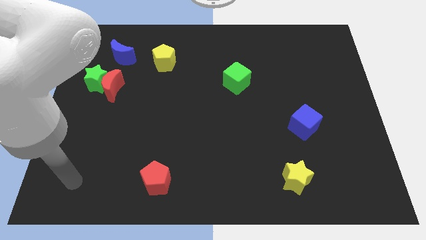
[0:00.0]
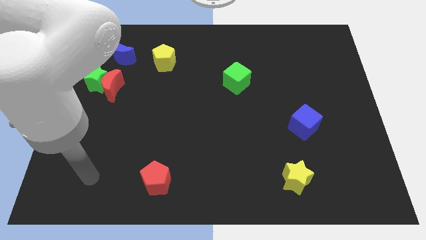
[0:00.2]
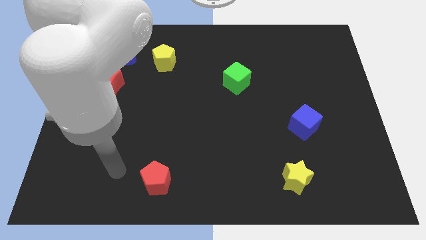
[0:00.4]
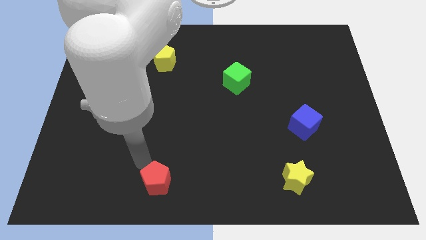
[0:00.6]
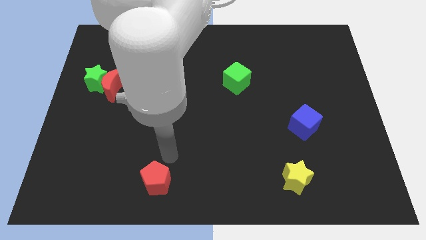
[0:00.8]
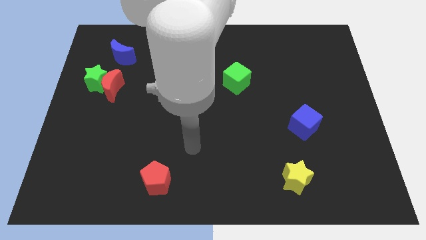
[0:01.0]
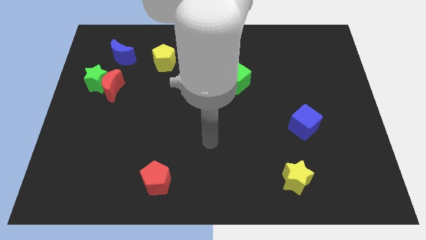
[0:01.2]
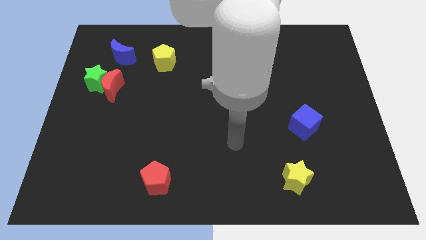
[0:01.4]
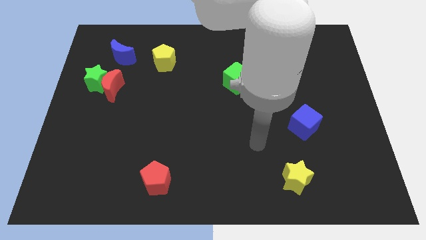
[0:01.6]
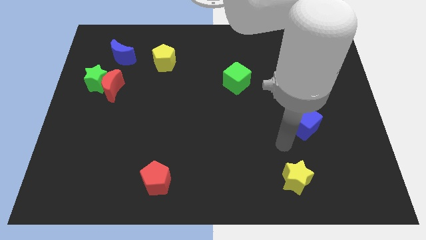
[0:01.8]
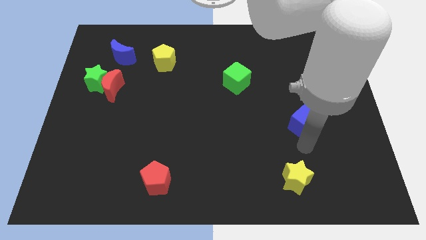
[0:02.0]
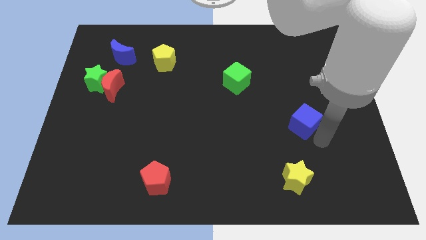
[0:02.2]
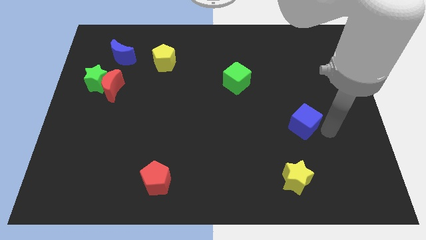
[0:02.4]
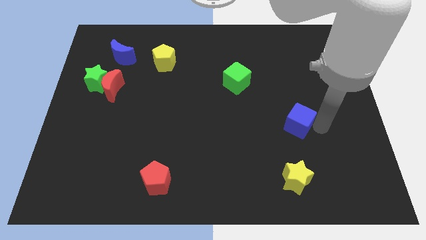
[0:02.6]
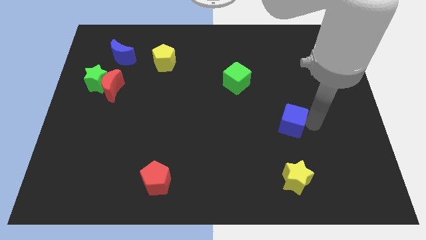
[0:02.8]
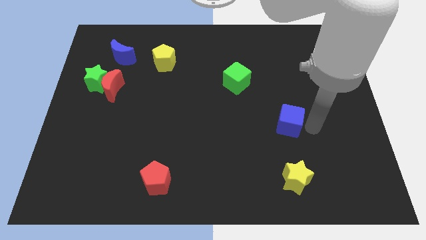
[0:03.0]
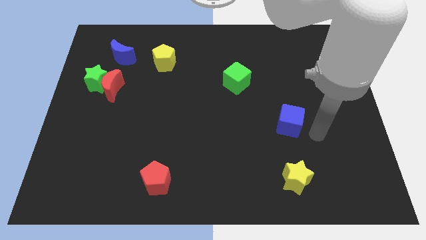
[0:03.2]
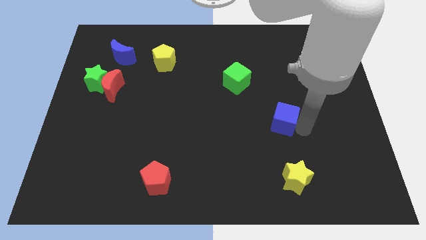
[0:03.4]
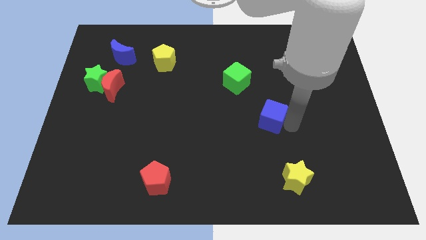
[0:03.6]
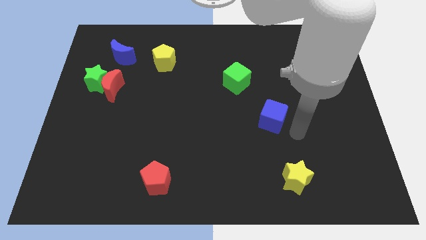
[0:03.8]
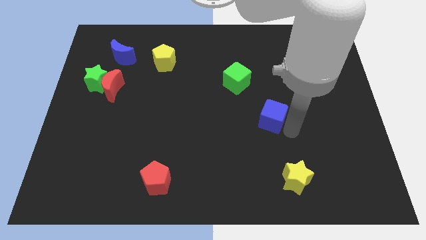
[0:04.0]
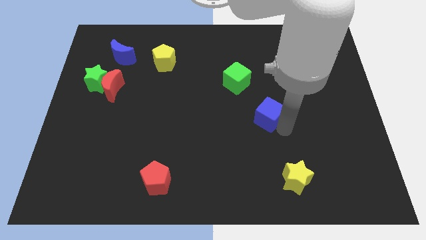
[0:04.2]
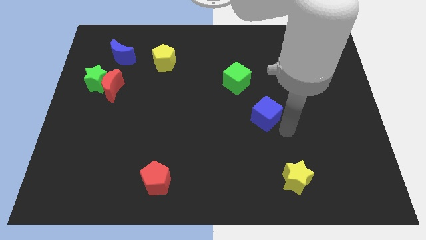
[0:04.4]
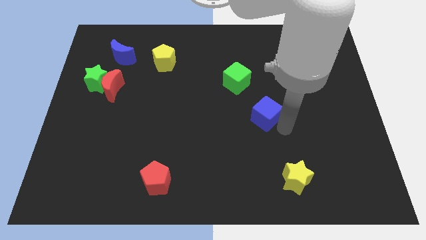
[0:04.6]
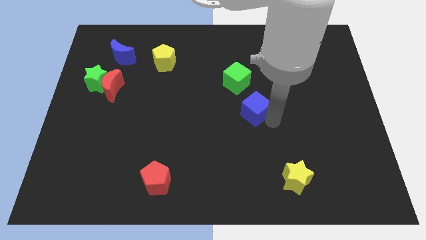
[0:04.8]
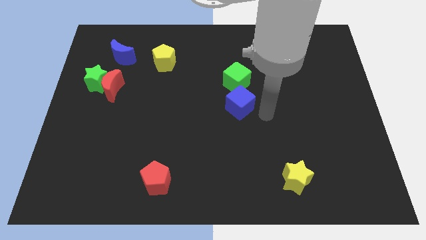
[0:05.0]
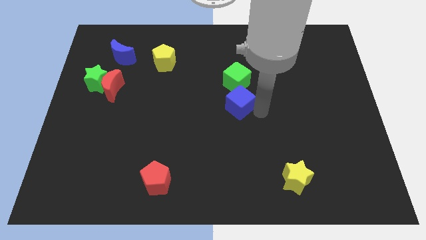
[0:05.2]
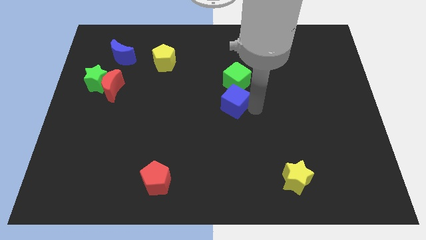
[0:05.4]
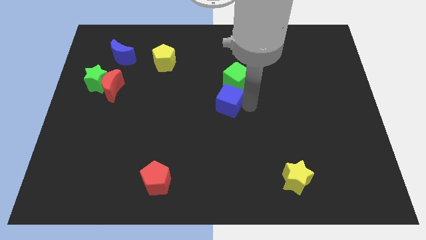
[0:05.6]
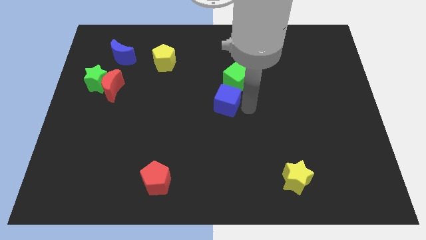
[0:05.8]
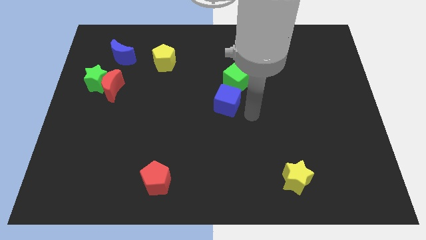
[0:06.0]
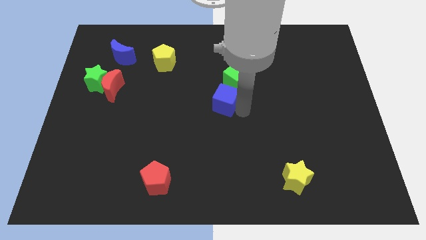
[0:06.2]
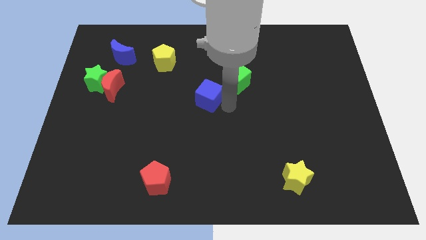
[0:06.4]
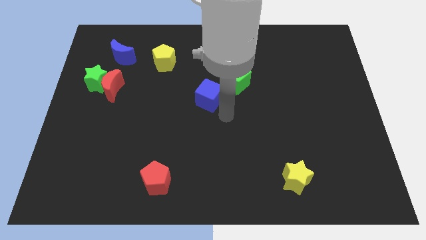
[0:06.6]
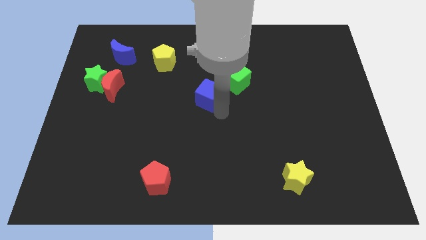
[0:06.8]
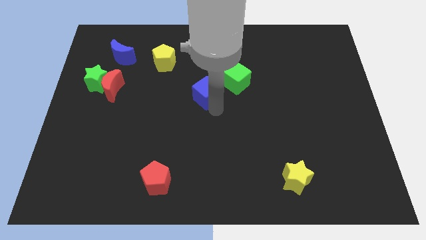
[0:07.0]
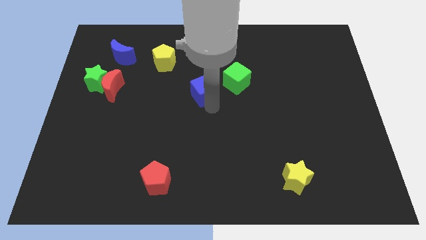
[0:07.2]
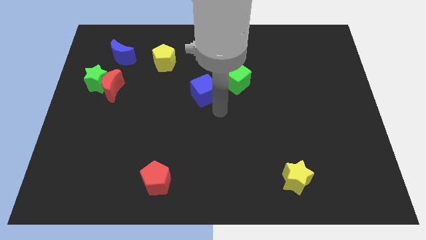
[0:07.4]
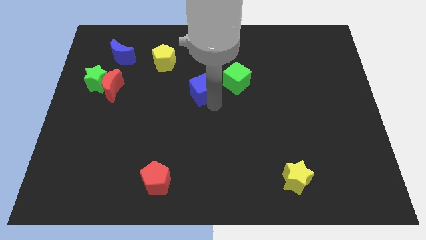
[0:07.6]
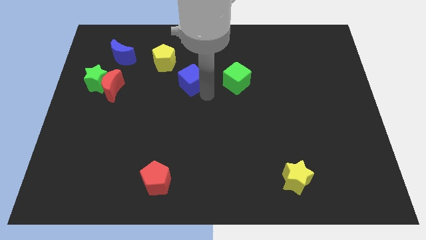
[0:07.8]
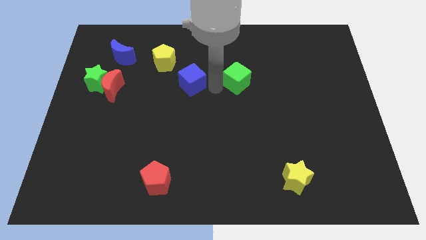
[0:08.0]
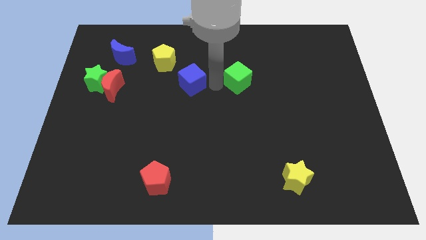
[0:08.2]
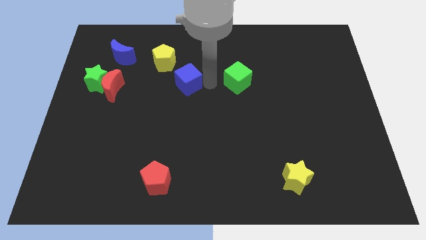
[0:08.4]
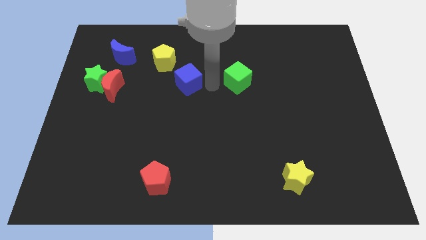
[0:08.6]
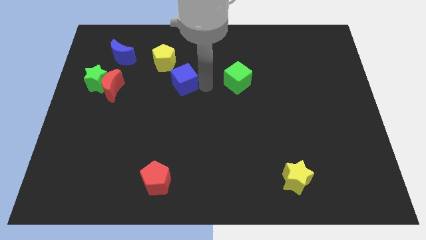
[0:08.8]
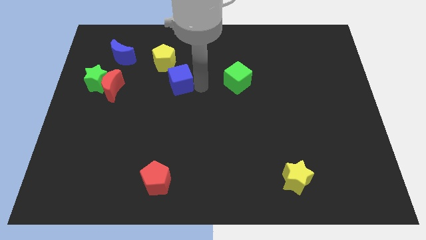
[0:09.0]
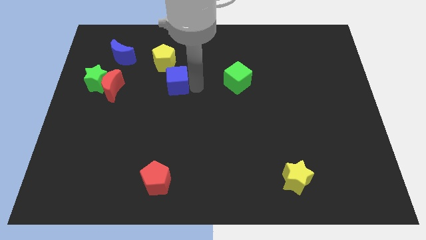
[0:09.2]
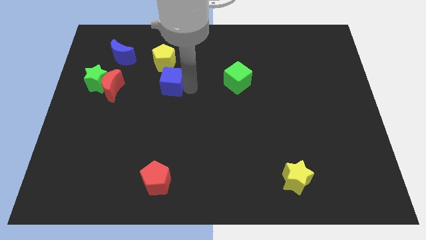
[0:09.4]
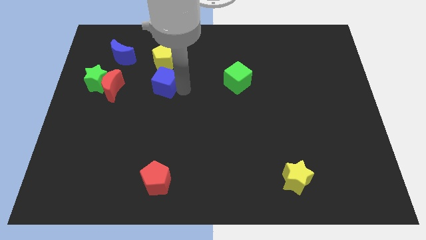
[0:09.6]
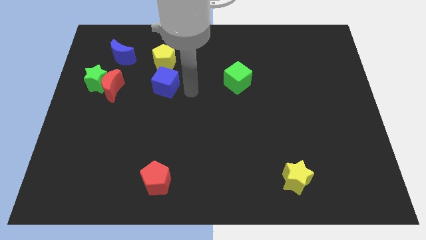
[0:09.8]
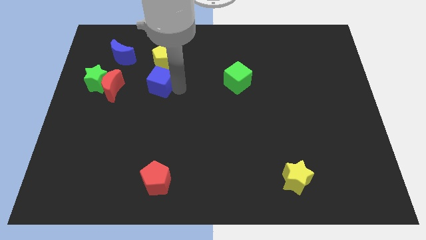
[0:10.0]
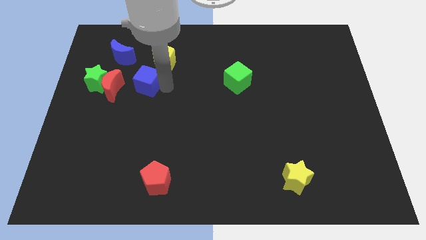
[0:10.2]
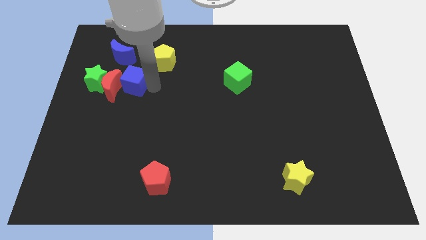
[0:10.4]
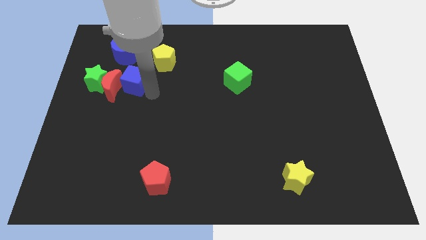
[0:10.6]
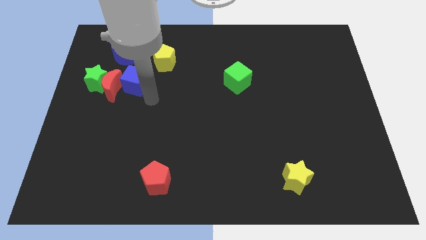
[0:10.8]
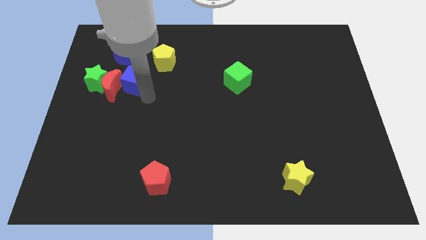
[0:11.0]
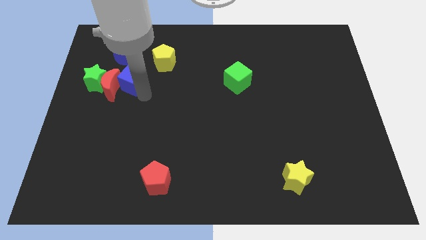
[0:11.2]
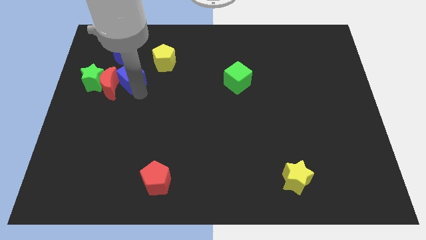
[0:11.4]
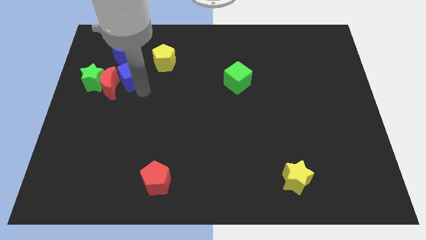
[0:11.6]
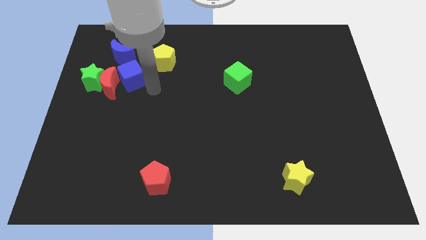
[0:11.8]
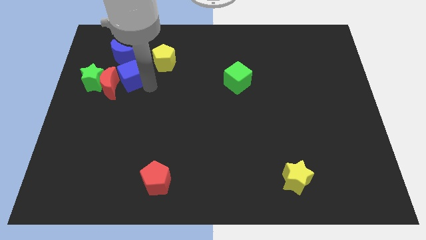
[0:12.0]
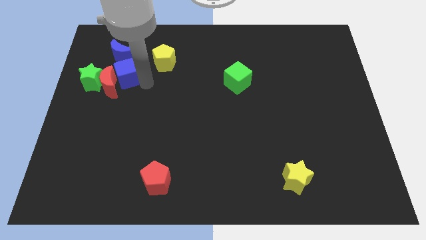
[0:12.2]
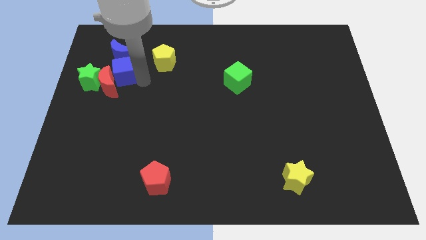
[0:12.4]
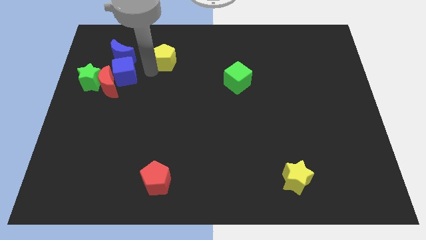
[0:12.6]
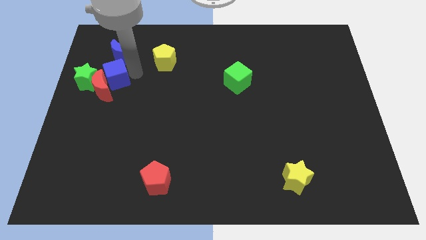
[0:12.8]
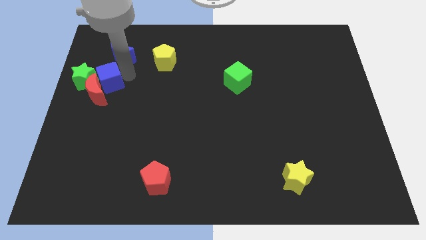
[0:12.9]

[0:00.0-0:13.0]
move the blue cube towards the green star

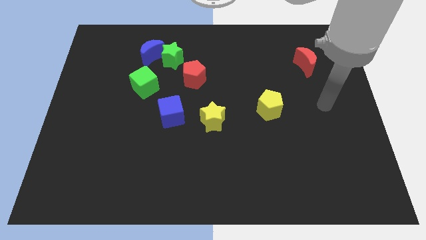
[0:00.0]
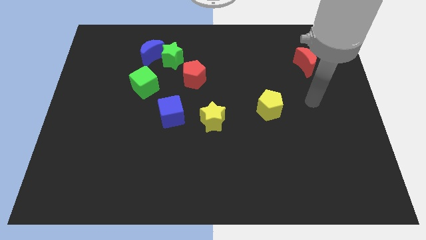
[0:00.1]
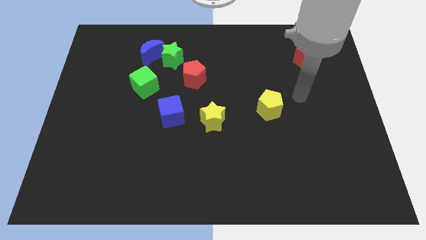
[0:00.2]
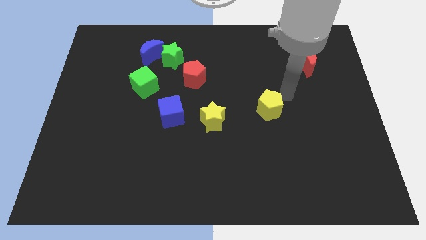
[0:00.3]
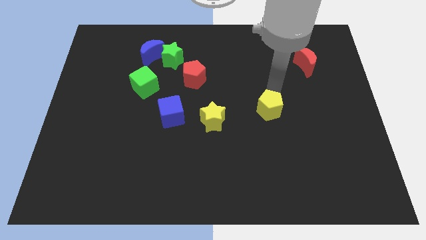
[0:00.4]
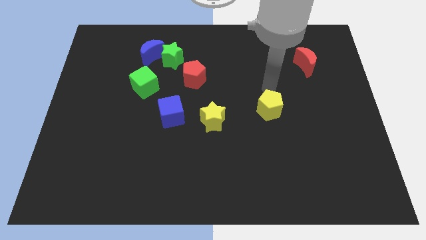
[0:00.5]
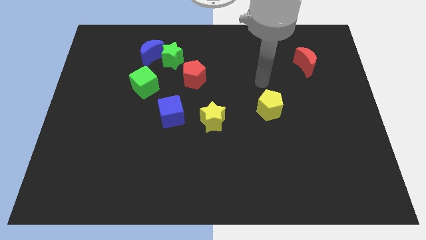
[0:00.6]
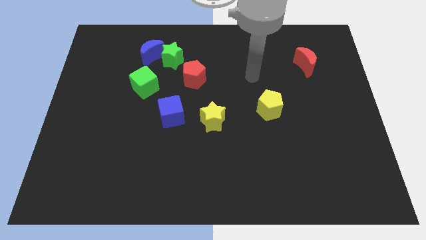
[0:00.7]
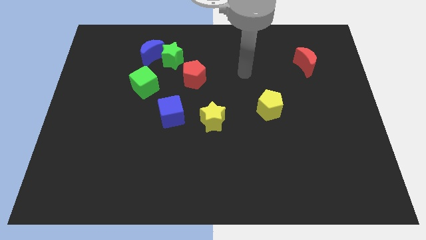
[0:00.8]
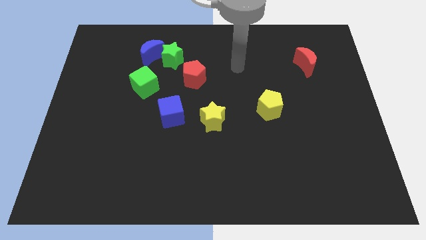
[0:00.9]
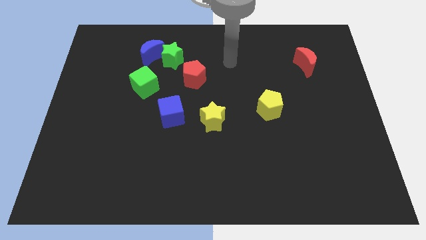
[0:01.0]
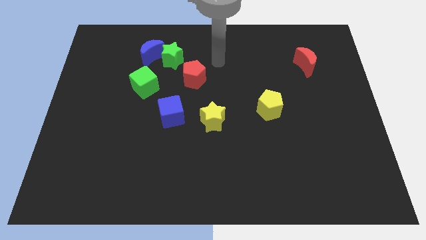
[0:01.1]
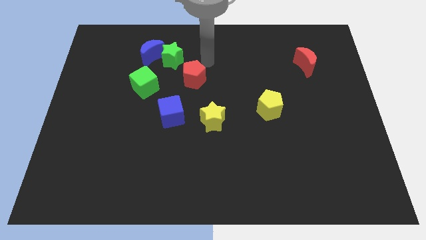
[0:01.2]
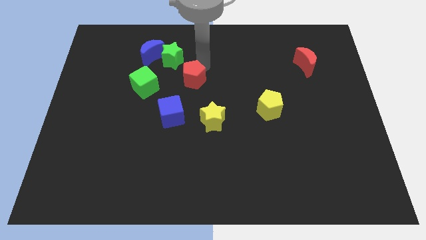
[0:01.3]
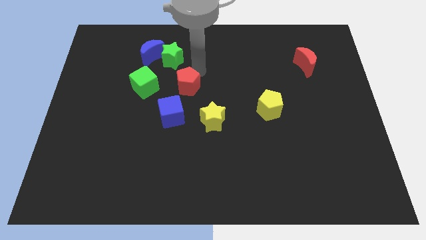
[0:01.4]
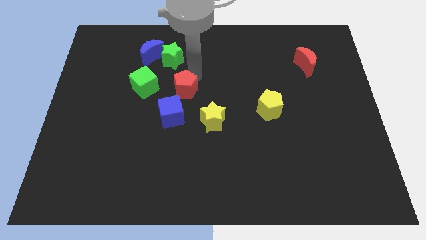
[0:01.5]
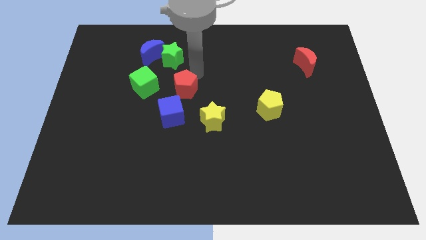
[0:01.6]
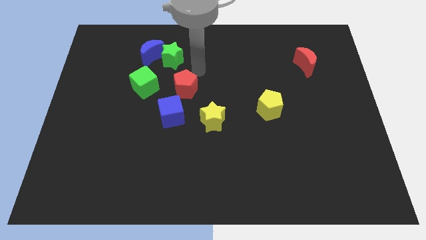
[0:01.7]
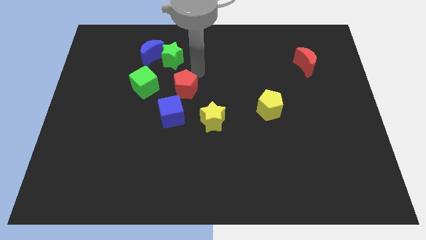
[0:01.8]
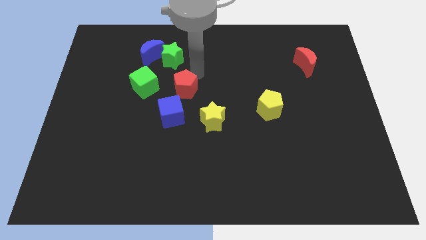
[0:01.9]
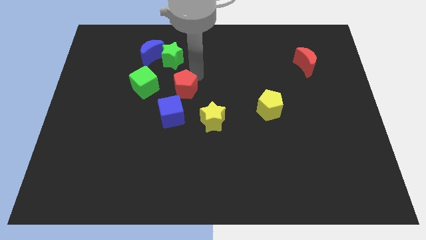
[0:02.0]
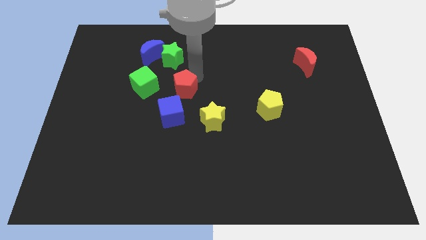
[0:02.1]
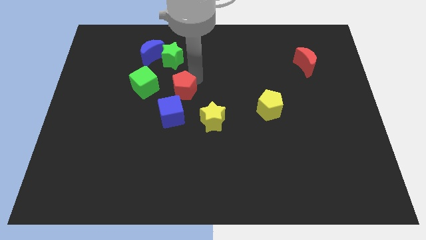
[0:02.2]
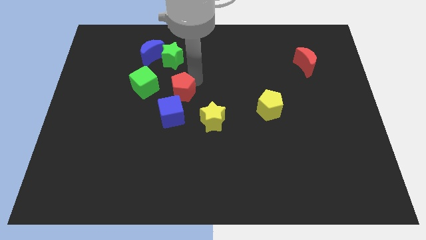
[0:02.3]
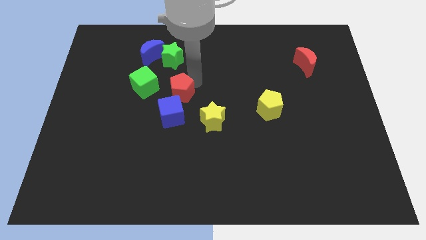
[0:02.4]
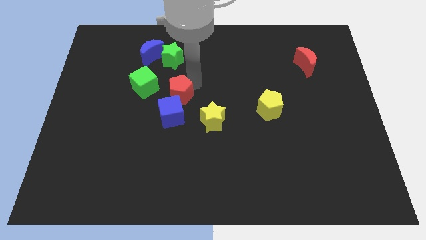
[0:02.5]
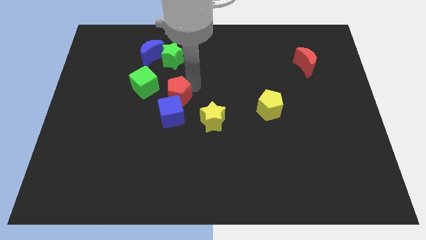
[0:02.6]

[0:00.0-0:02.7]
move the red pentagon to the blue cube
